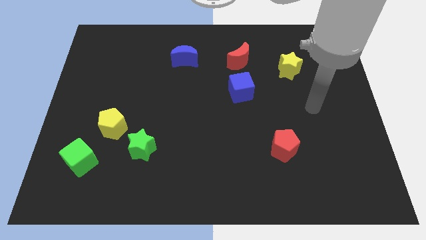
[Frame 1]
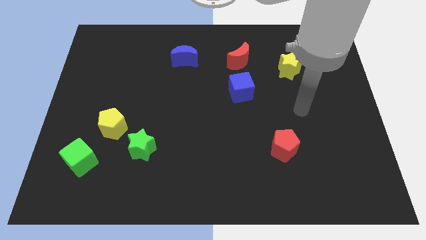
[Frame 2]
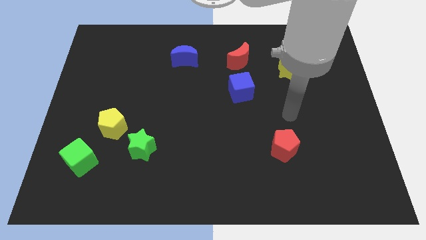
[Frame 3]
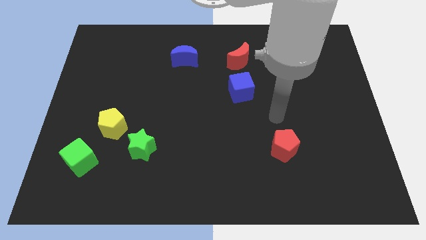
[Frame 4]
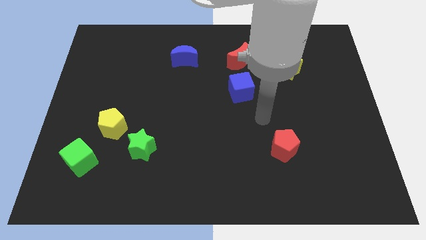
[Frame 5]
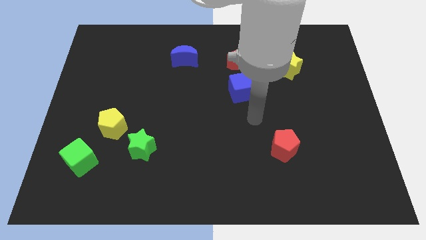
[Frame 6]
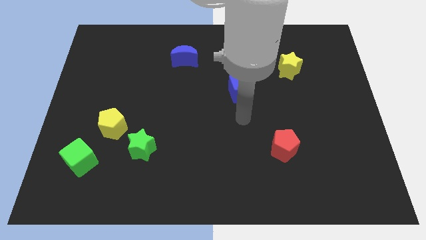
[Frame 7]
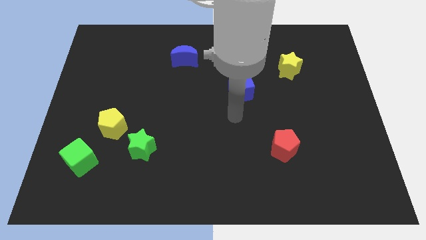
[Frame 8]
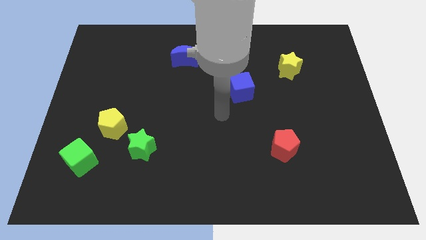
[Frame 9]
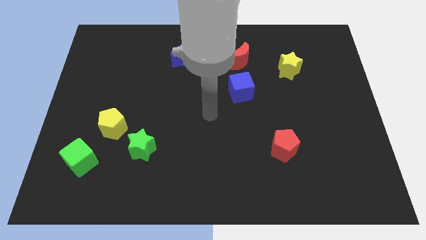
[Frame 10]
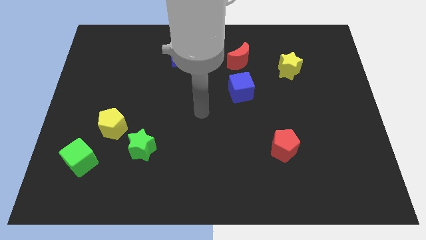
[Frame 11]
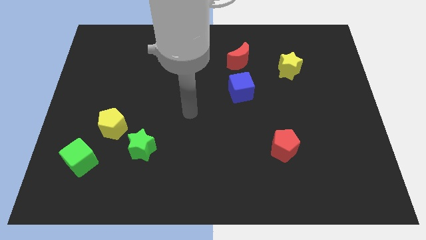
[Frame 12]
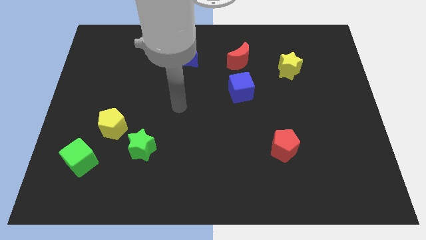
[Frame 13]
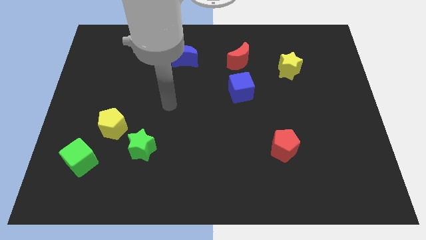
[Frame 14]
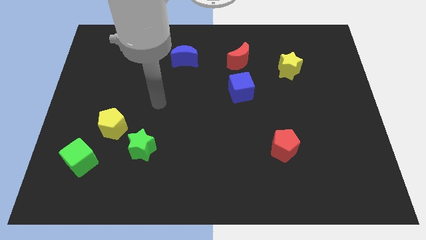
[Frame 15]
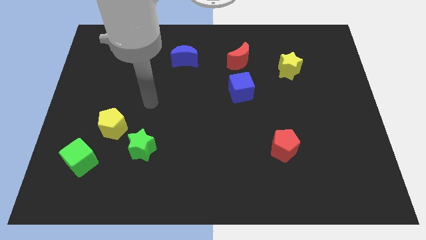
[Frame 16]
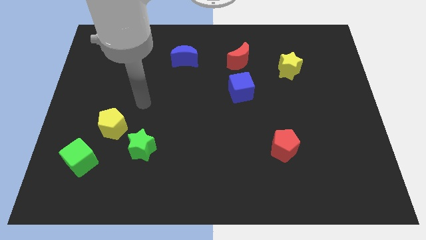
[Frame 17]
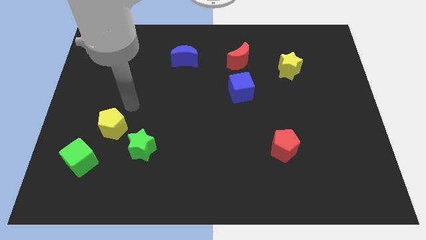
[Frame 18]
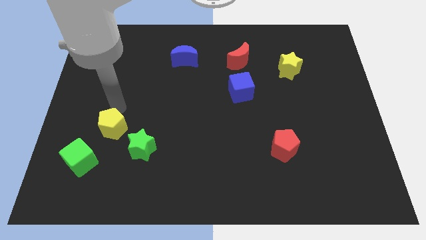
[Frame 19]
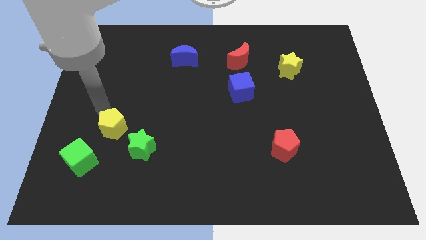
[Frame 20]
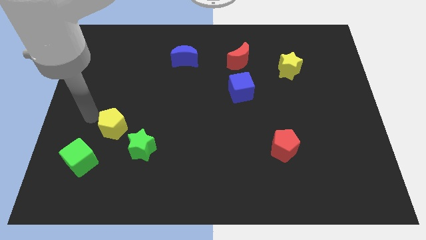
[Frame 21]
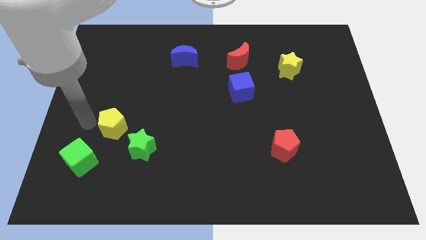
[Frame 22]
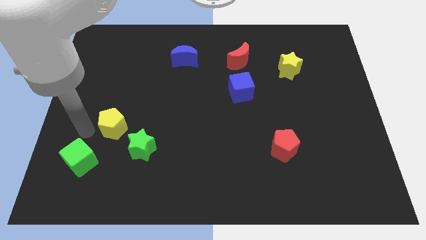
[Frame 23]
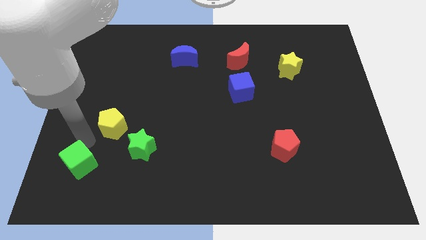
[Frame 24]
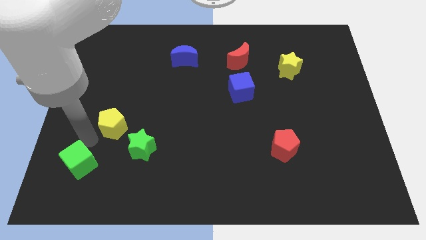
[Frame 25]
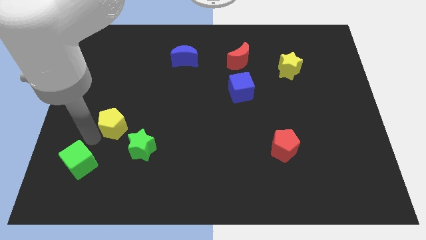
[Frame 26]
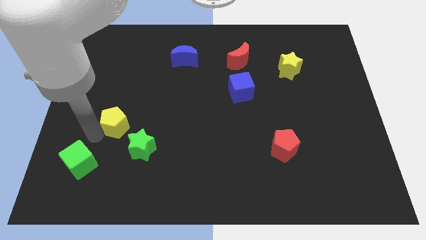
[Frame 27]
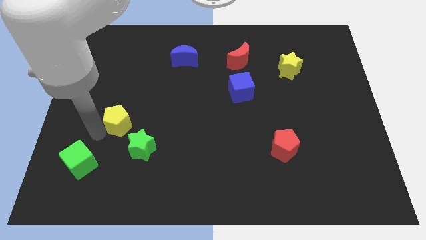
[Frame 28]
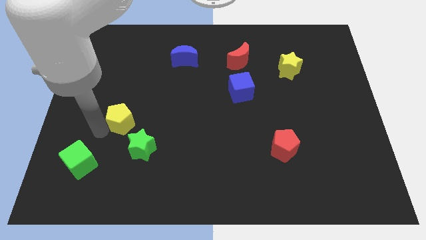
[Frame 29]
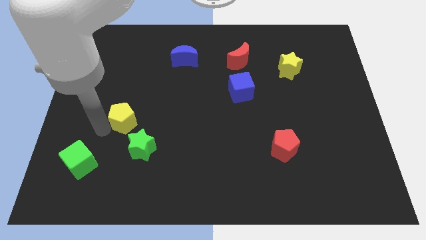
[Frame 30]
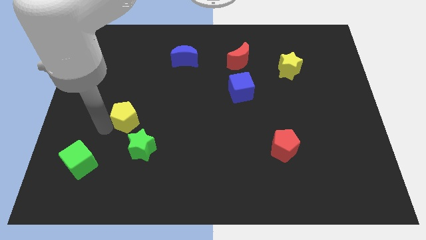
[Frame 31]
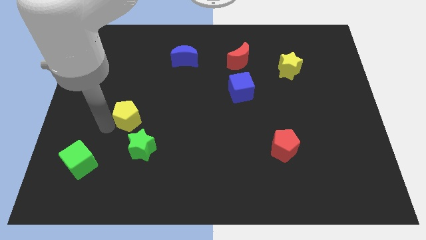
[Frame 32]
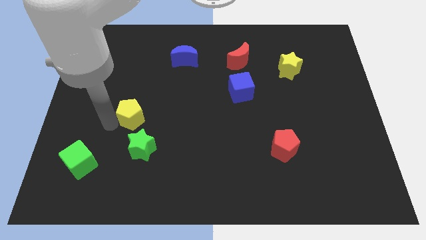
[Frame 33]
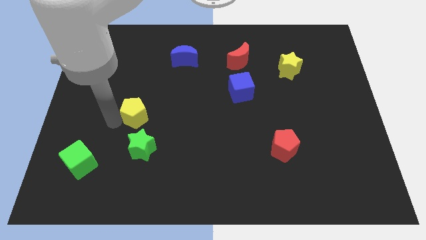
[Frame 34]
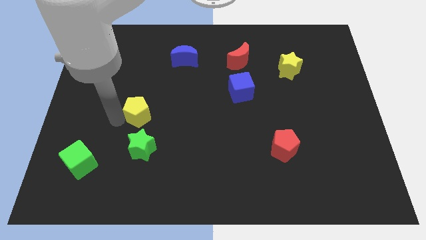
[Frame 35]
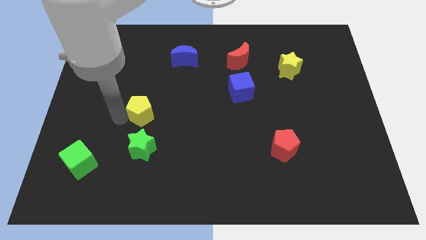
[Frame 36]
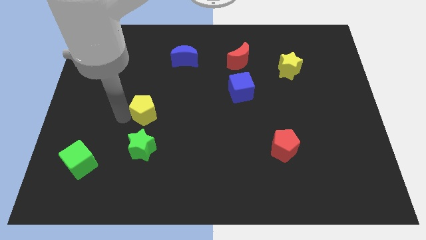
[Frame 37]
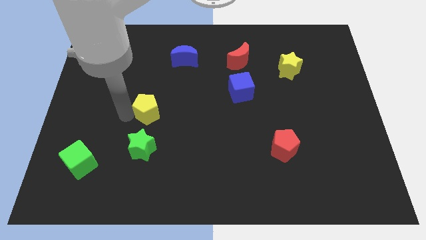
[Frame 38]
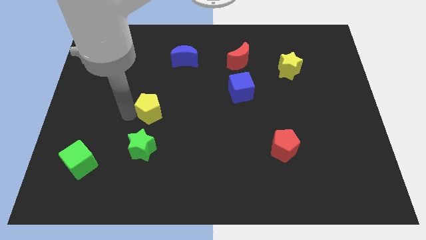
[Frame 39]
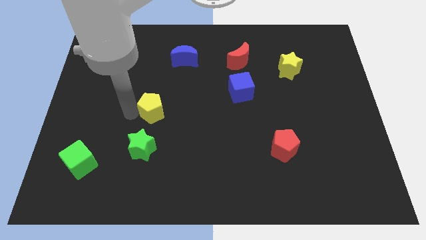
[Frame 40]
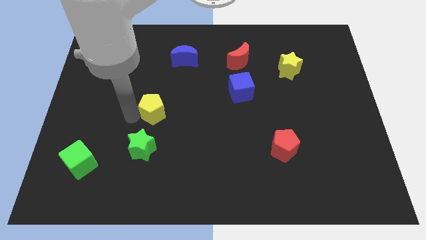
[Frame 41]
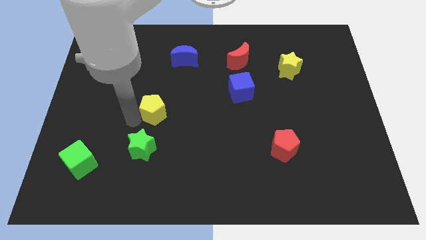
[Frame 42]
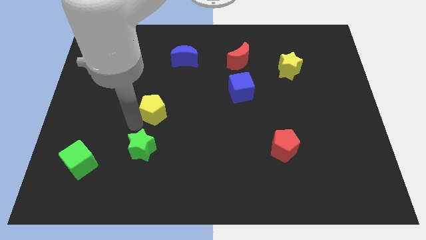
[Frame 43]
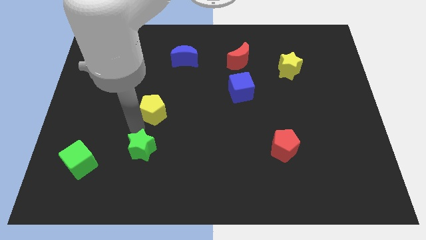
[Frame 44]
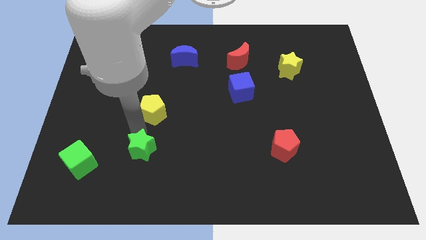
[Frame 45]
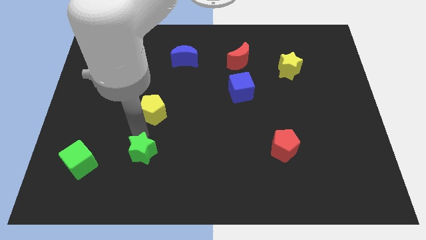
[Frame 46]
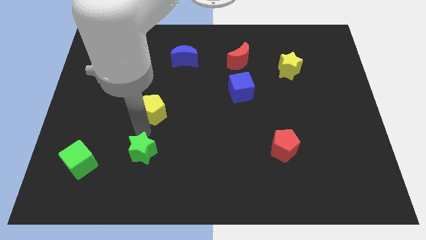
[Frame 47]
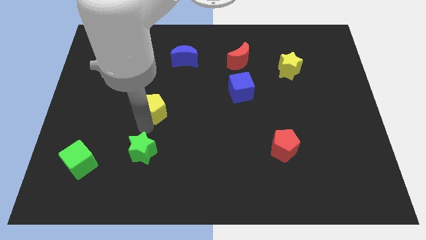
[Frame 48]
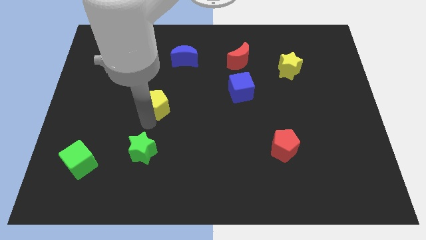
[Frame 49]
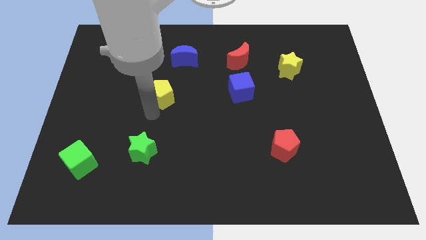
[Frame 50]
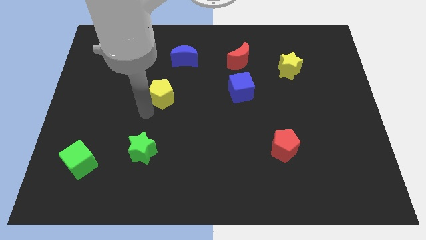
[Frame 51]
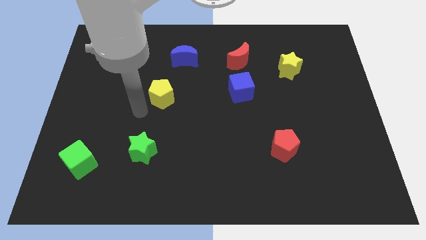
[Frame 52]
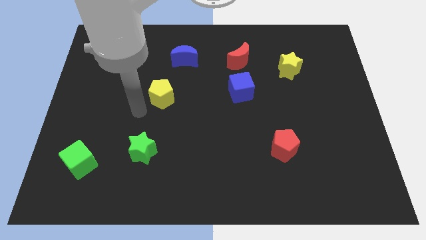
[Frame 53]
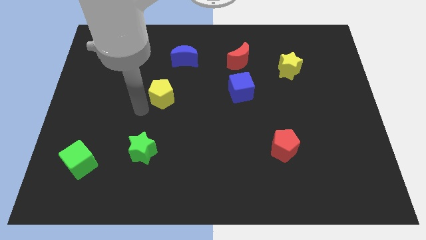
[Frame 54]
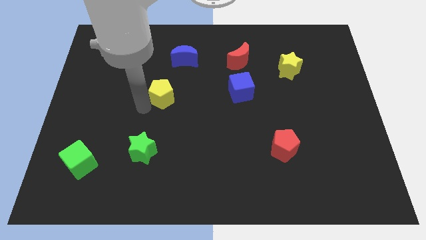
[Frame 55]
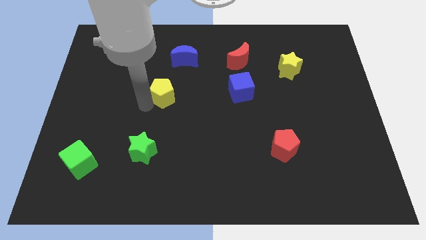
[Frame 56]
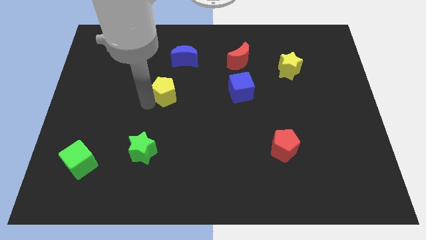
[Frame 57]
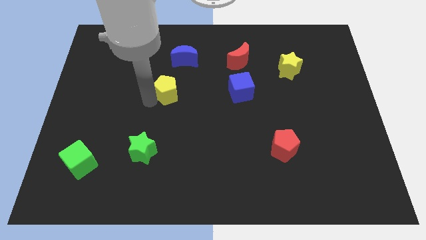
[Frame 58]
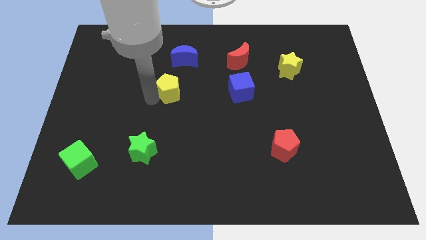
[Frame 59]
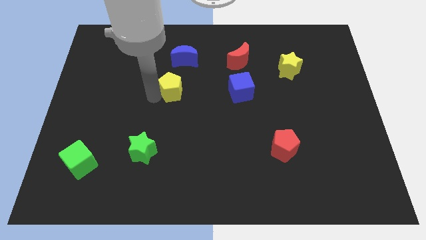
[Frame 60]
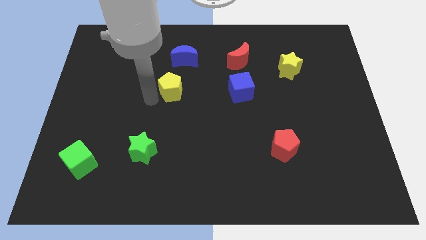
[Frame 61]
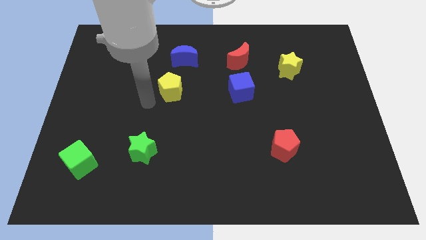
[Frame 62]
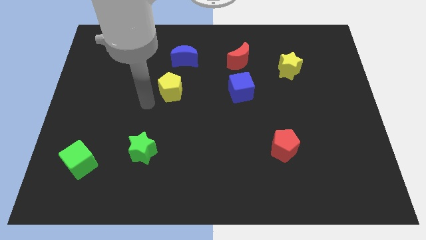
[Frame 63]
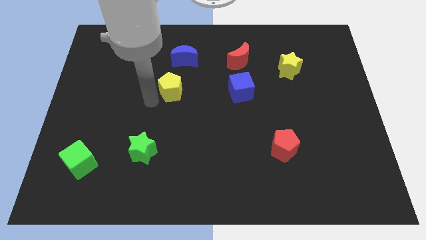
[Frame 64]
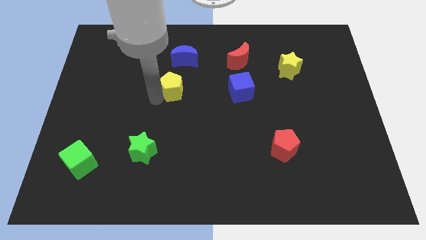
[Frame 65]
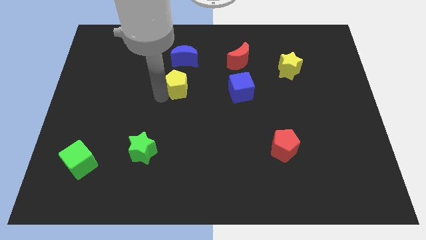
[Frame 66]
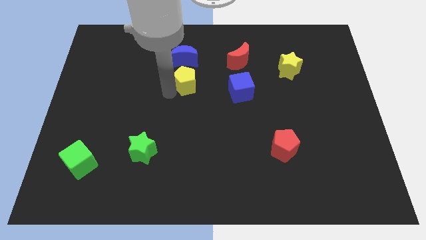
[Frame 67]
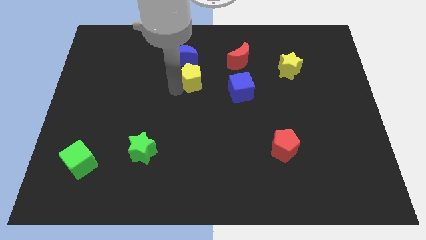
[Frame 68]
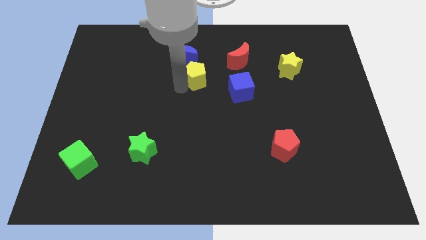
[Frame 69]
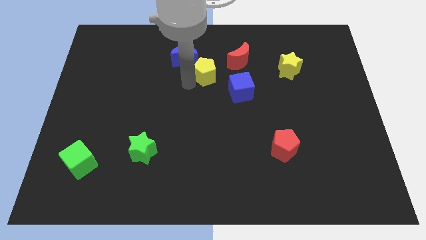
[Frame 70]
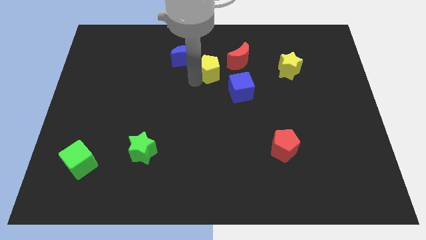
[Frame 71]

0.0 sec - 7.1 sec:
move the yellow pentagon right of the blue moon
